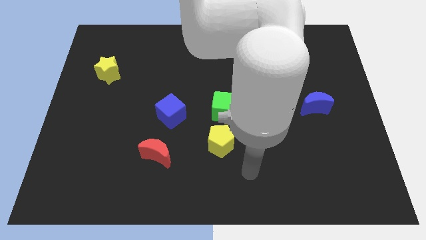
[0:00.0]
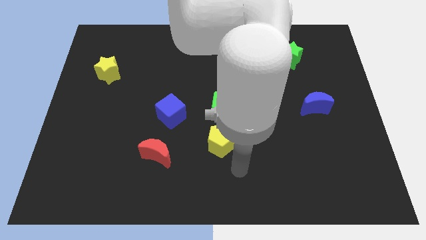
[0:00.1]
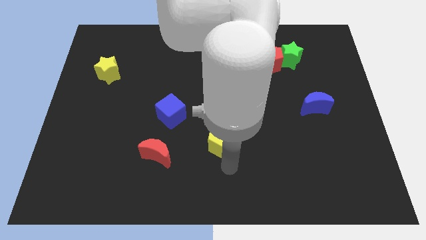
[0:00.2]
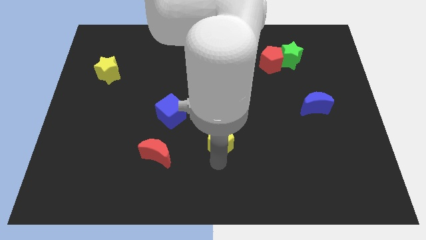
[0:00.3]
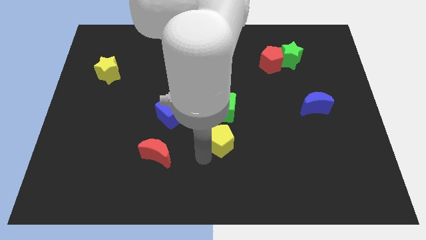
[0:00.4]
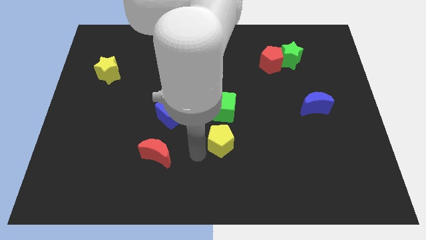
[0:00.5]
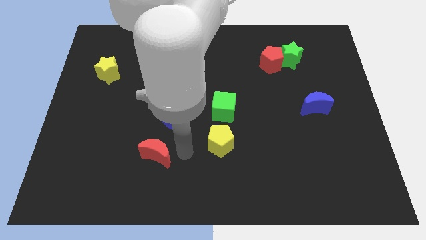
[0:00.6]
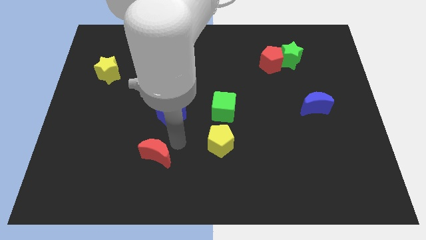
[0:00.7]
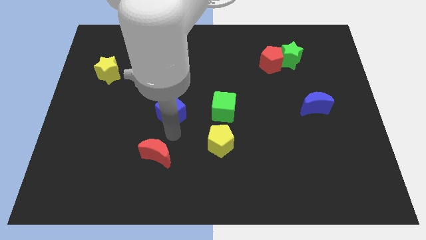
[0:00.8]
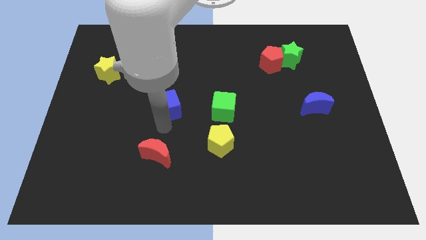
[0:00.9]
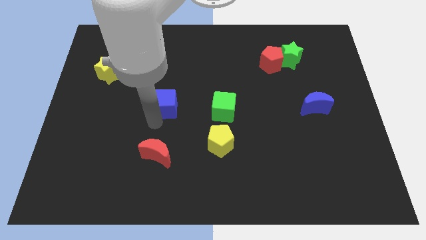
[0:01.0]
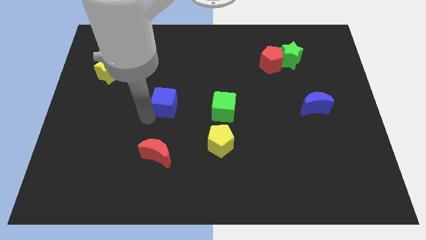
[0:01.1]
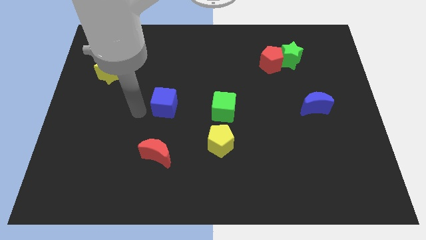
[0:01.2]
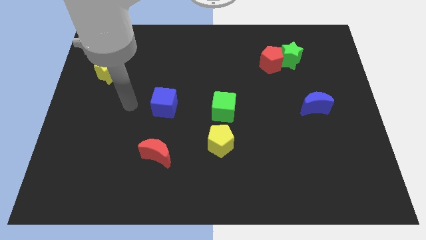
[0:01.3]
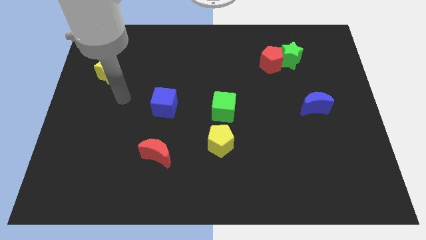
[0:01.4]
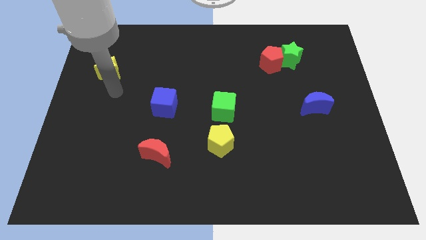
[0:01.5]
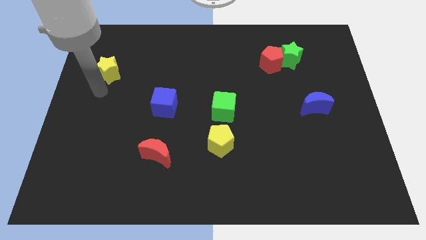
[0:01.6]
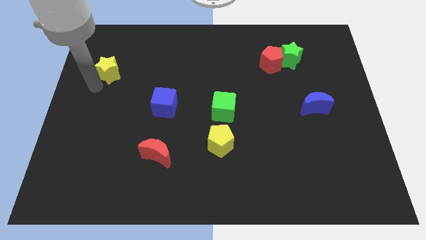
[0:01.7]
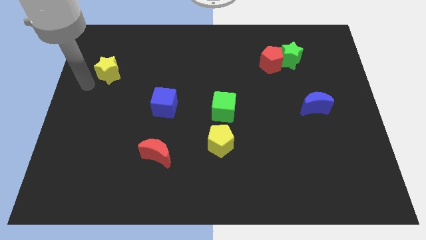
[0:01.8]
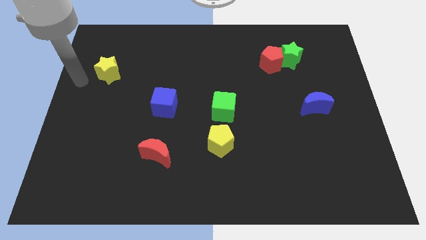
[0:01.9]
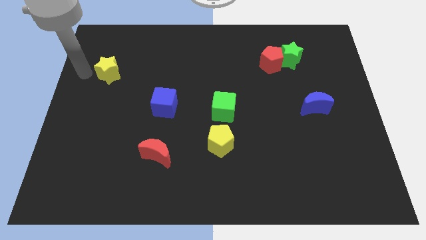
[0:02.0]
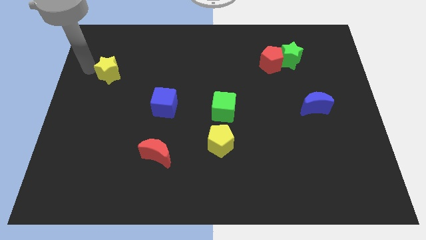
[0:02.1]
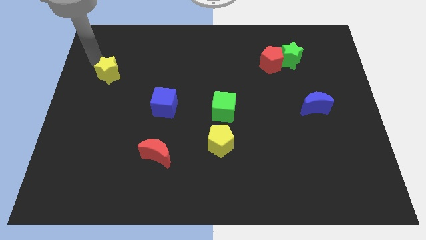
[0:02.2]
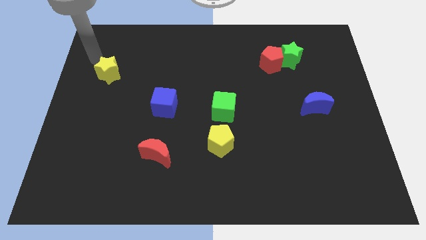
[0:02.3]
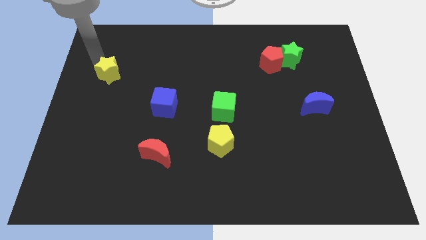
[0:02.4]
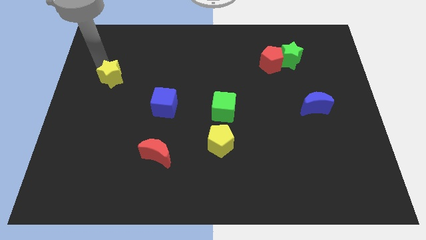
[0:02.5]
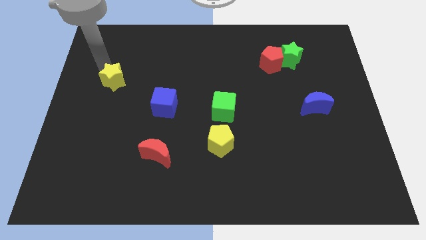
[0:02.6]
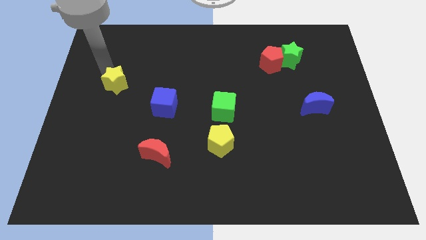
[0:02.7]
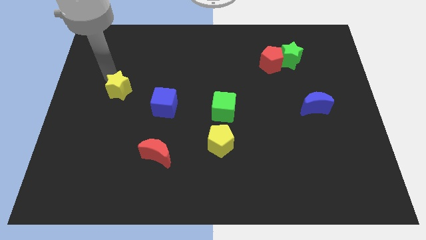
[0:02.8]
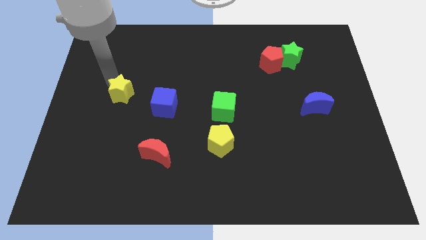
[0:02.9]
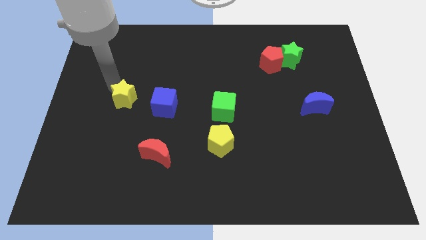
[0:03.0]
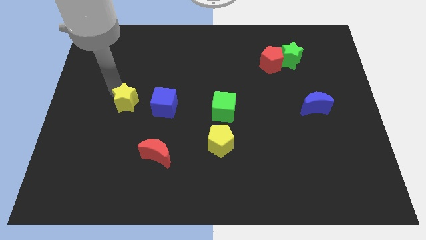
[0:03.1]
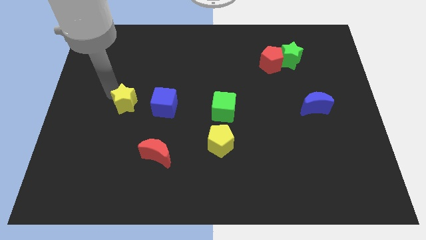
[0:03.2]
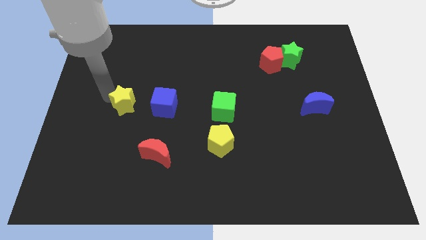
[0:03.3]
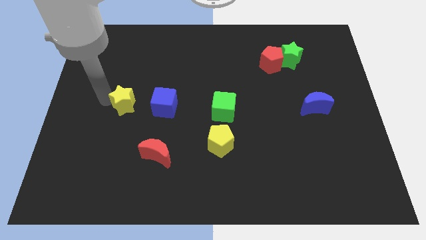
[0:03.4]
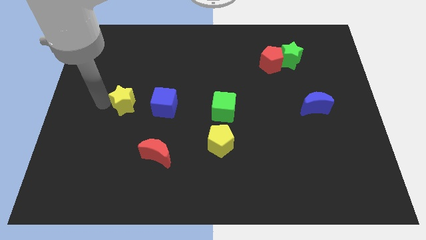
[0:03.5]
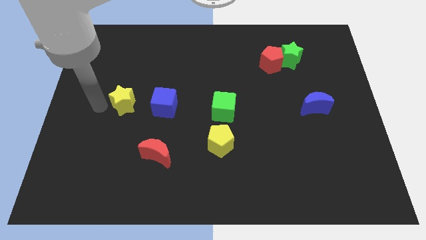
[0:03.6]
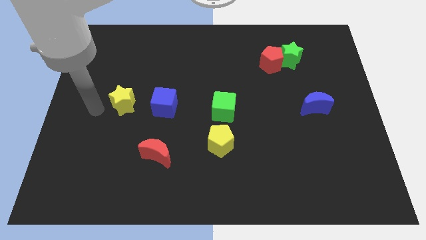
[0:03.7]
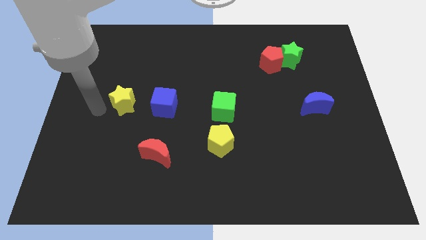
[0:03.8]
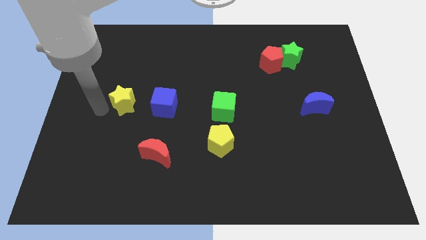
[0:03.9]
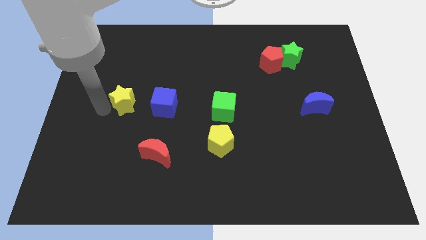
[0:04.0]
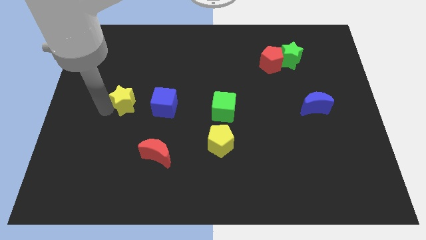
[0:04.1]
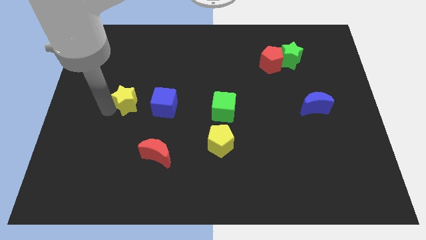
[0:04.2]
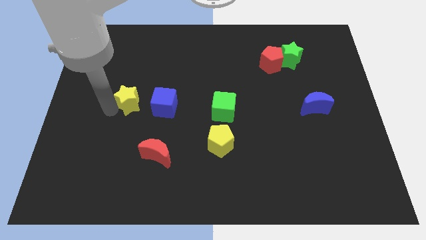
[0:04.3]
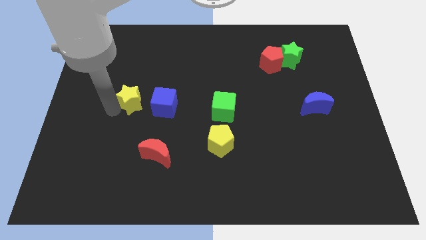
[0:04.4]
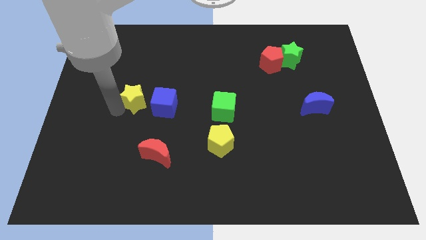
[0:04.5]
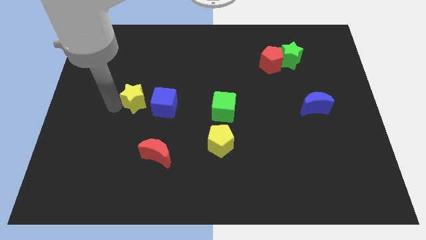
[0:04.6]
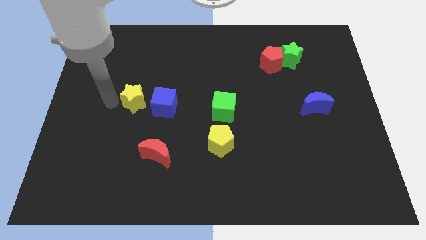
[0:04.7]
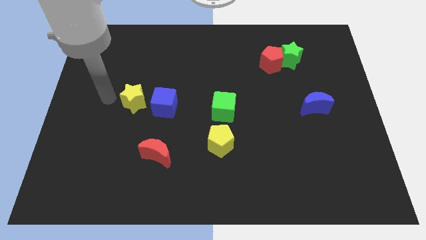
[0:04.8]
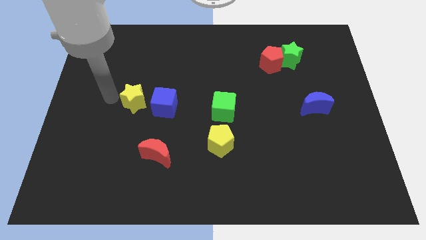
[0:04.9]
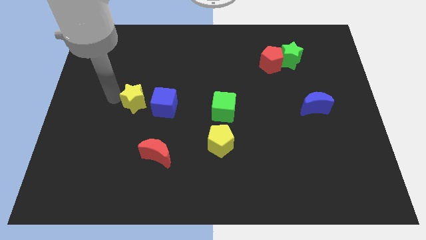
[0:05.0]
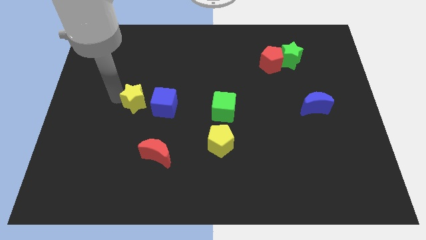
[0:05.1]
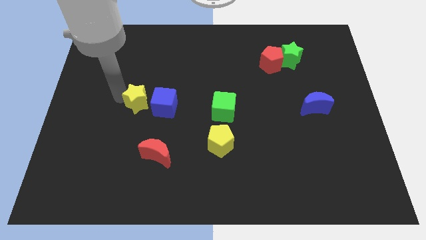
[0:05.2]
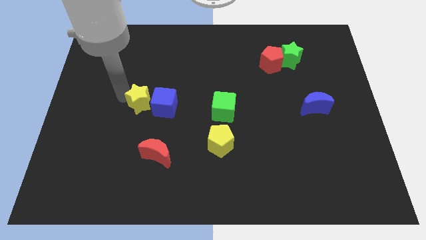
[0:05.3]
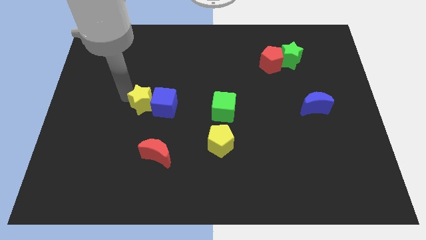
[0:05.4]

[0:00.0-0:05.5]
slide the yellow star towards the blue cube

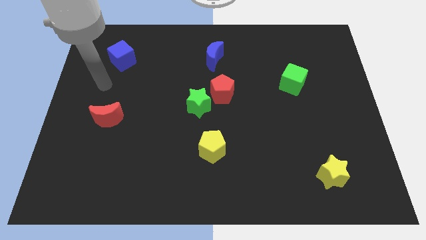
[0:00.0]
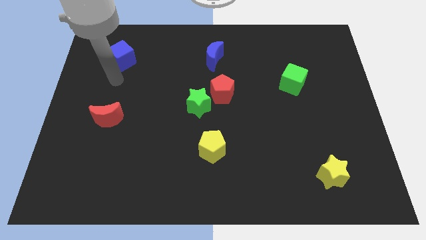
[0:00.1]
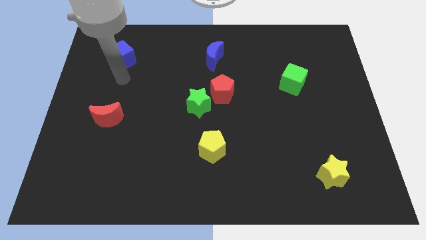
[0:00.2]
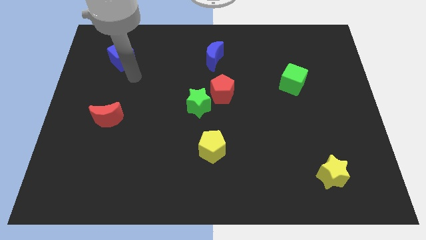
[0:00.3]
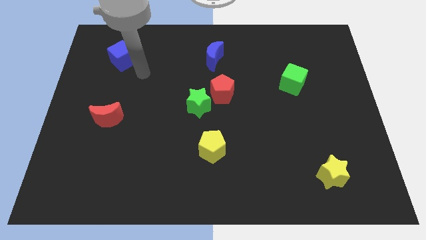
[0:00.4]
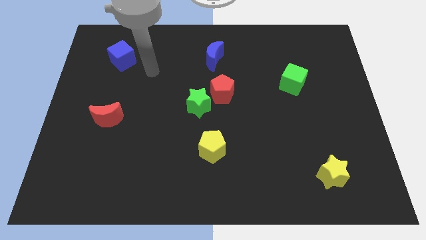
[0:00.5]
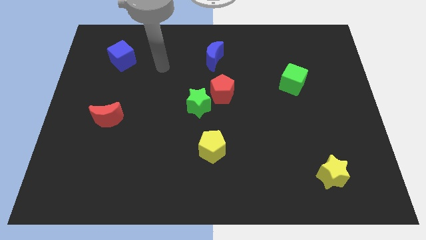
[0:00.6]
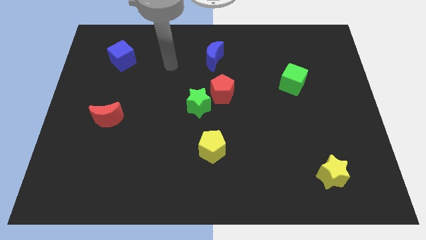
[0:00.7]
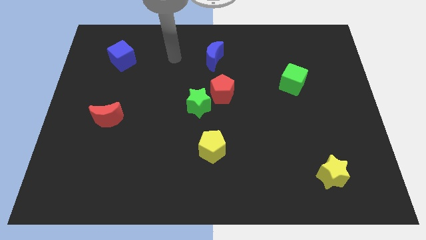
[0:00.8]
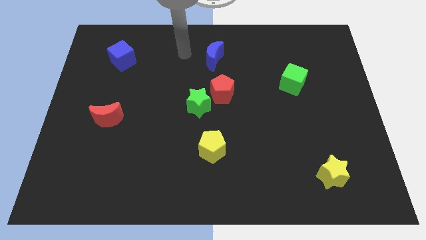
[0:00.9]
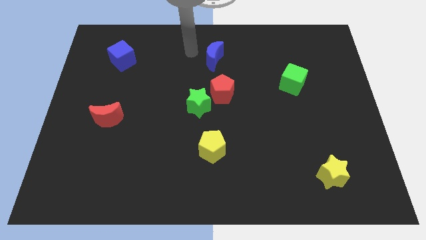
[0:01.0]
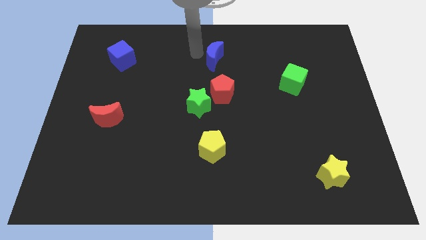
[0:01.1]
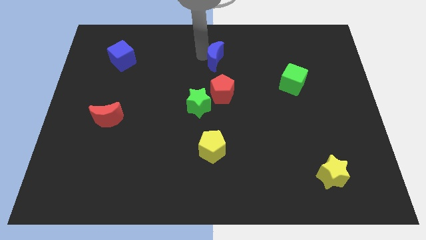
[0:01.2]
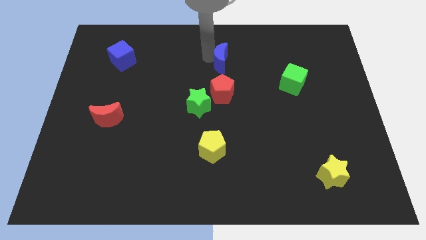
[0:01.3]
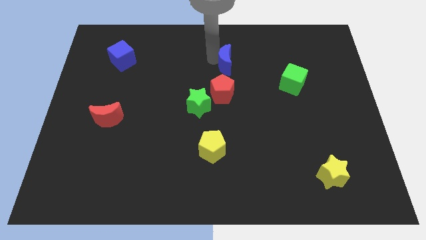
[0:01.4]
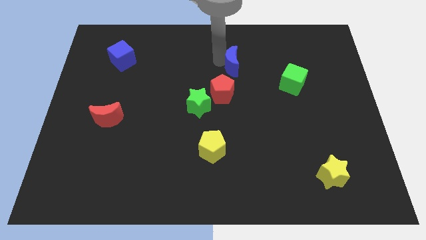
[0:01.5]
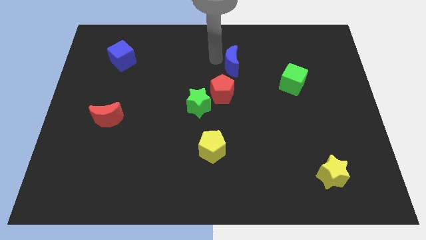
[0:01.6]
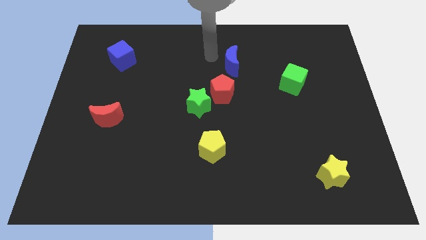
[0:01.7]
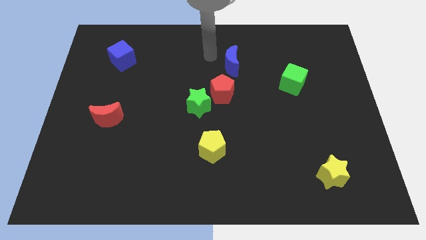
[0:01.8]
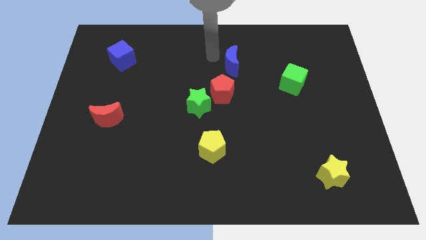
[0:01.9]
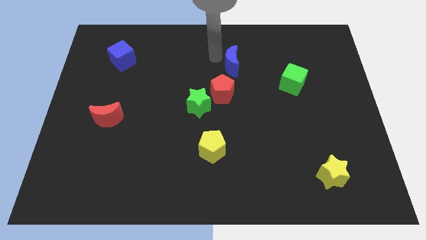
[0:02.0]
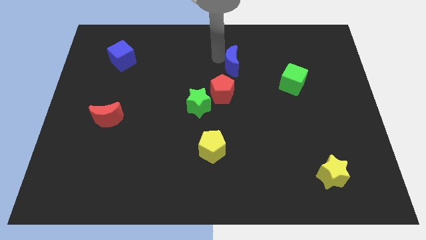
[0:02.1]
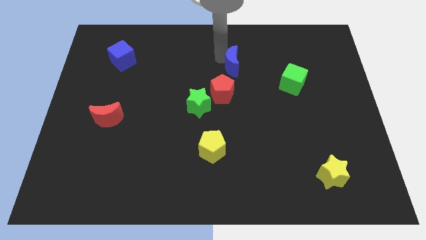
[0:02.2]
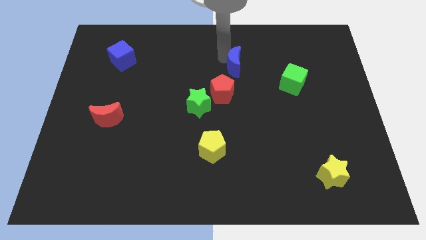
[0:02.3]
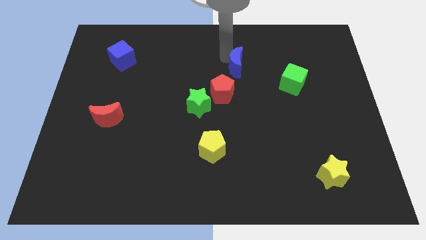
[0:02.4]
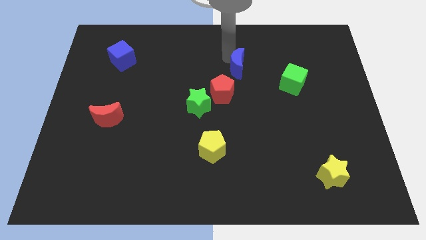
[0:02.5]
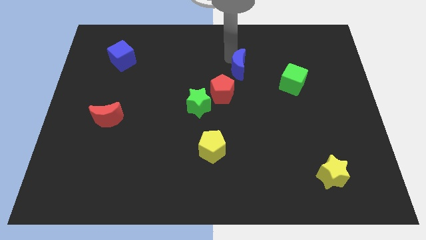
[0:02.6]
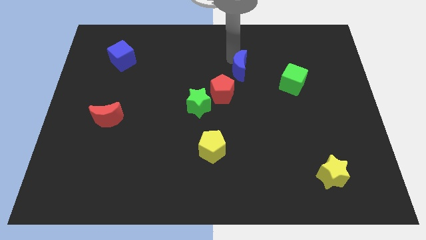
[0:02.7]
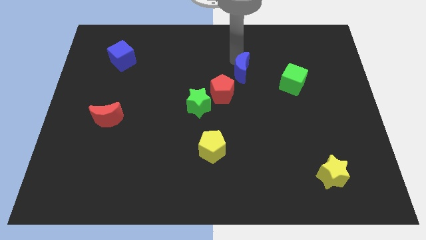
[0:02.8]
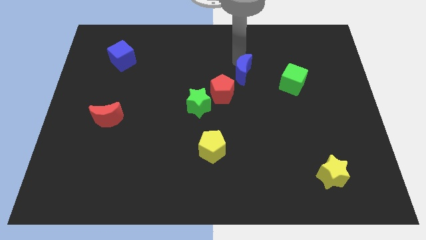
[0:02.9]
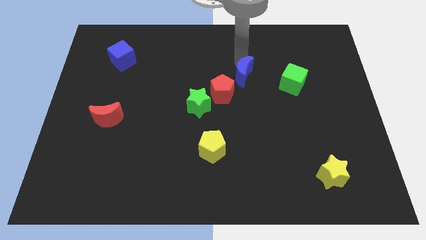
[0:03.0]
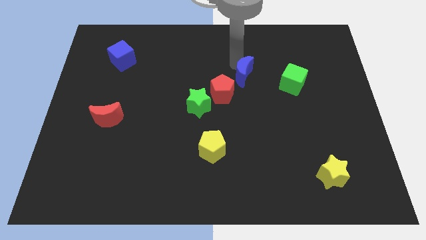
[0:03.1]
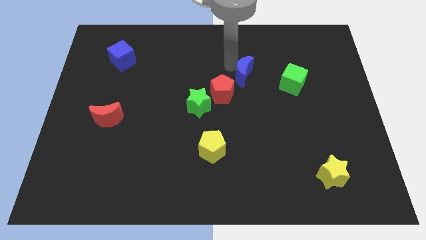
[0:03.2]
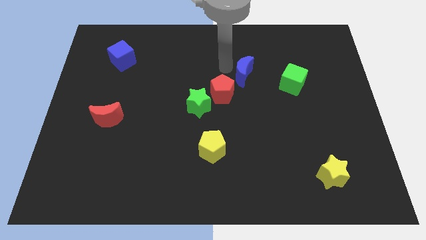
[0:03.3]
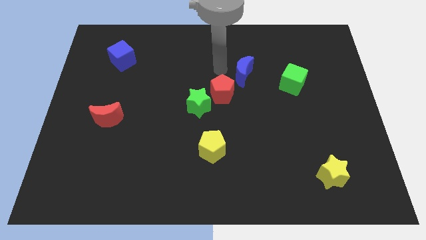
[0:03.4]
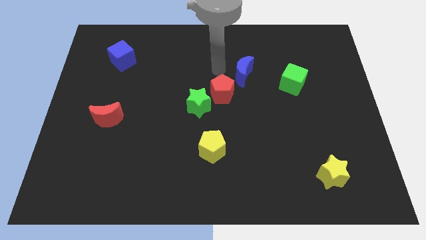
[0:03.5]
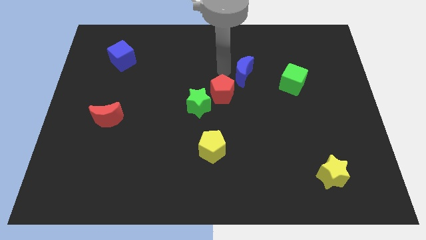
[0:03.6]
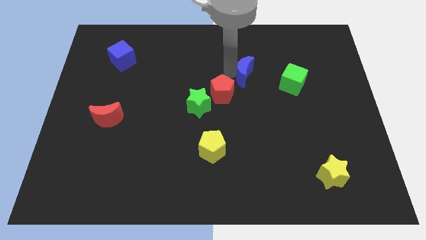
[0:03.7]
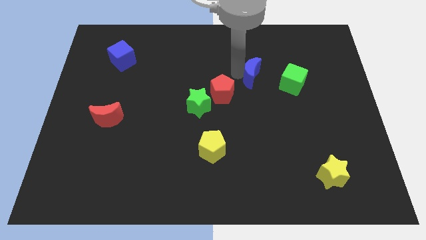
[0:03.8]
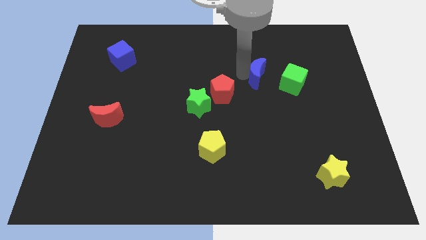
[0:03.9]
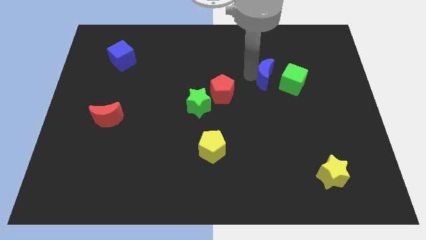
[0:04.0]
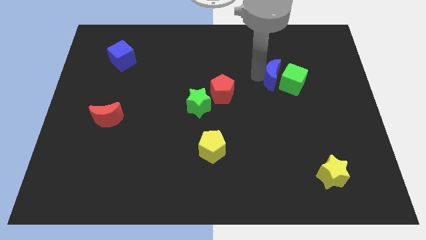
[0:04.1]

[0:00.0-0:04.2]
put the blue moon next to the green cube
